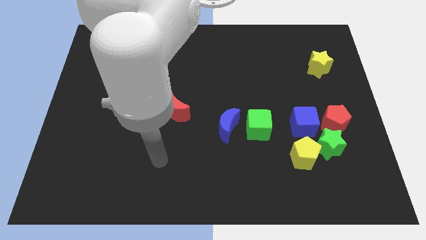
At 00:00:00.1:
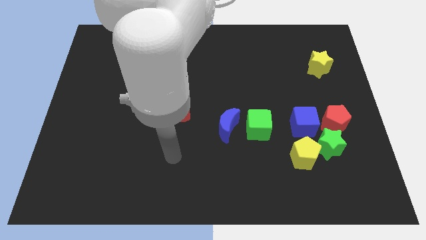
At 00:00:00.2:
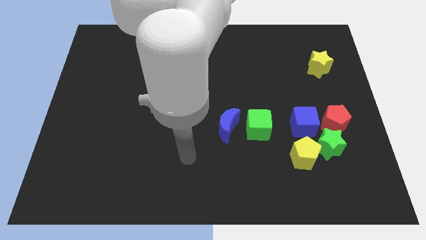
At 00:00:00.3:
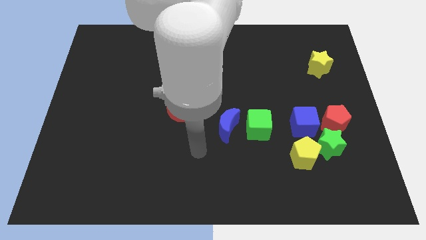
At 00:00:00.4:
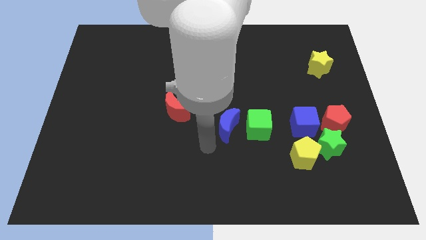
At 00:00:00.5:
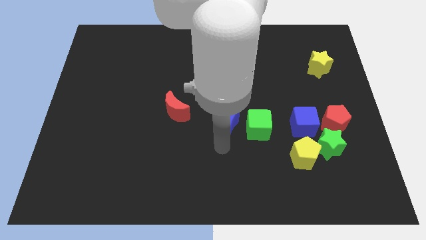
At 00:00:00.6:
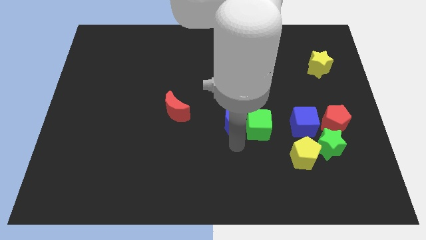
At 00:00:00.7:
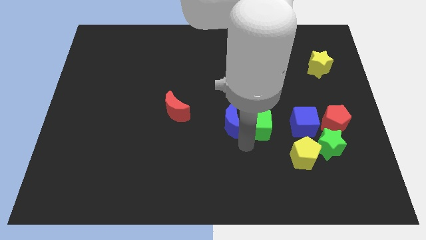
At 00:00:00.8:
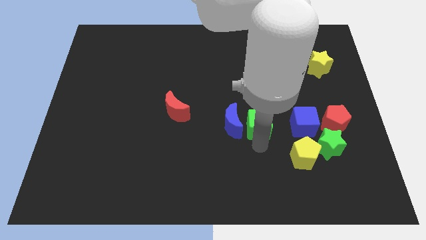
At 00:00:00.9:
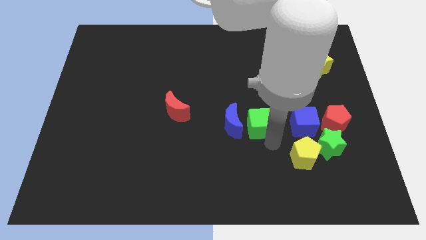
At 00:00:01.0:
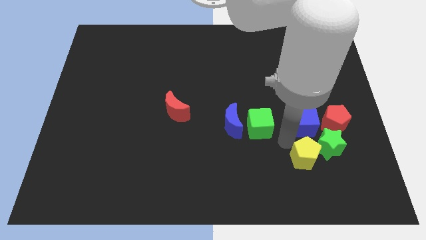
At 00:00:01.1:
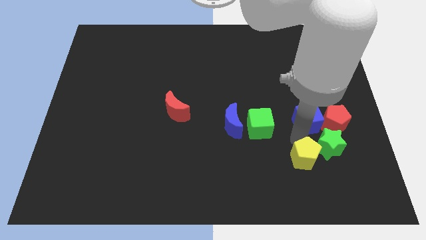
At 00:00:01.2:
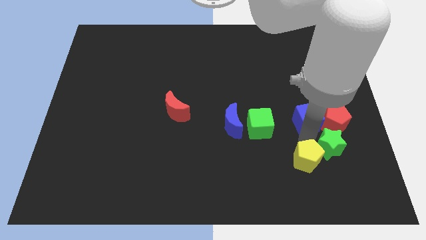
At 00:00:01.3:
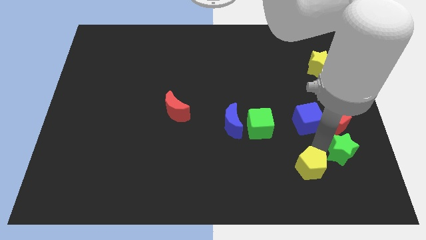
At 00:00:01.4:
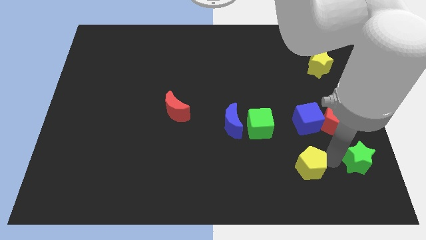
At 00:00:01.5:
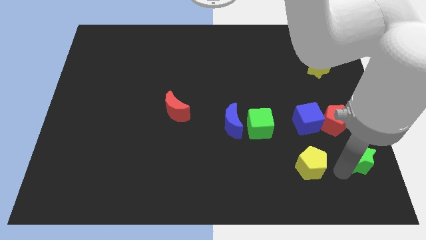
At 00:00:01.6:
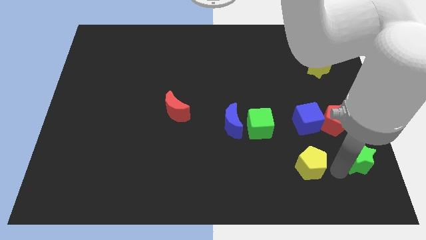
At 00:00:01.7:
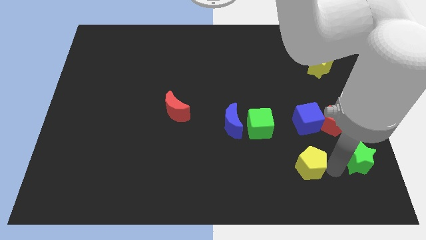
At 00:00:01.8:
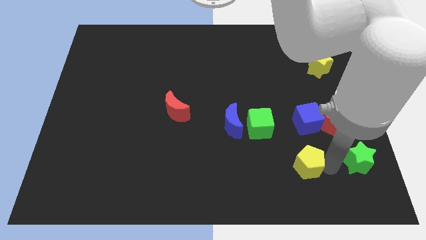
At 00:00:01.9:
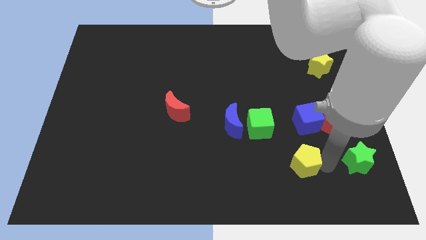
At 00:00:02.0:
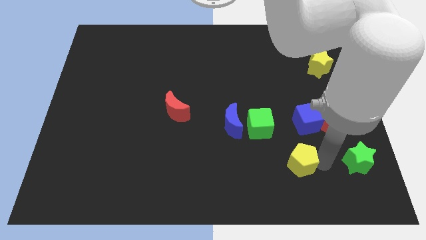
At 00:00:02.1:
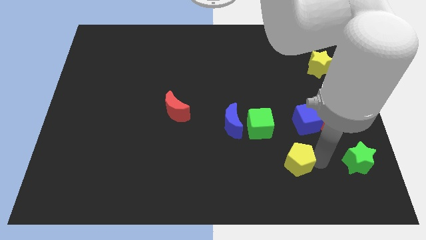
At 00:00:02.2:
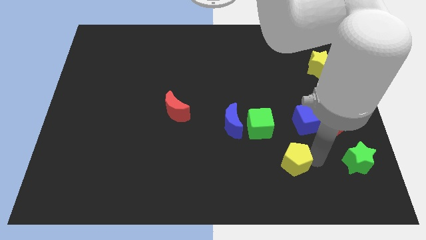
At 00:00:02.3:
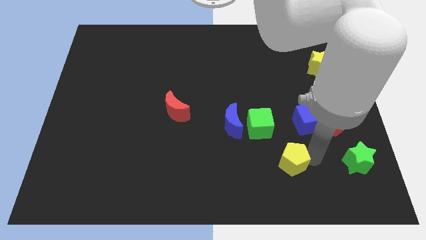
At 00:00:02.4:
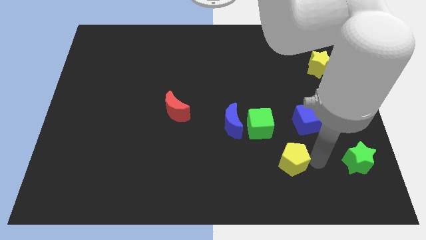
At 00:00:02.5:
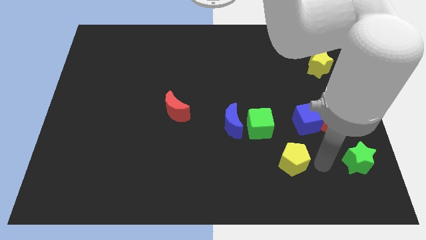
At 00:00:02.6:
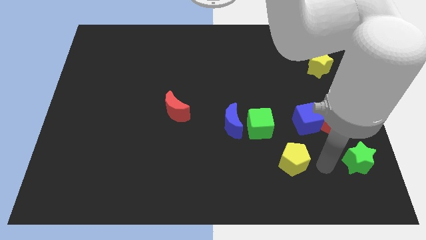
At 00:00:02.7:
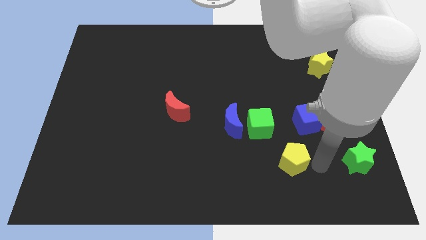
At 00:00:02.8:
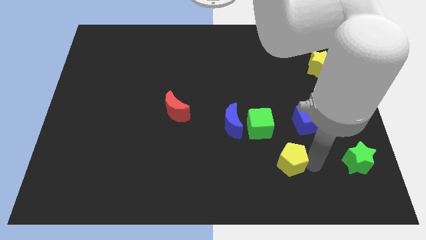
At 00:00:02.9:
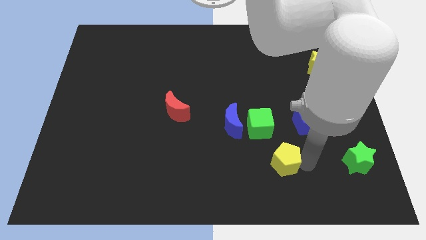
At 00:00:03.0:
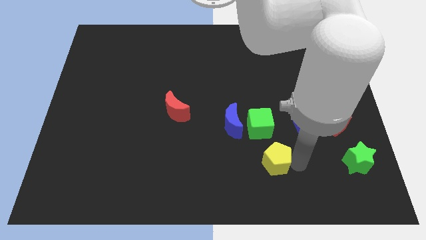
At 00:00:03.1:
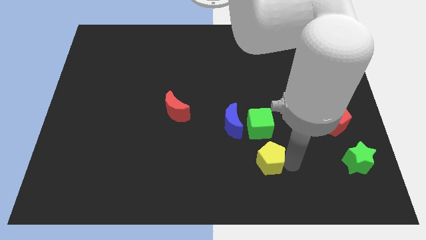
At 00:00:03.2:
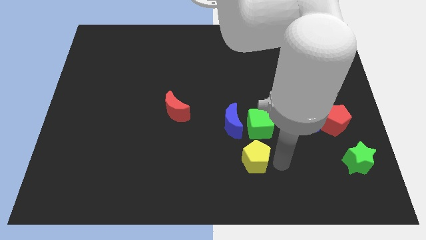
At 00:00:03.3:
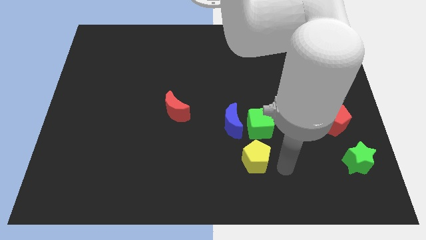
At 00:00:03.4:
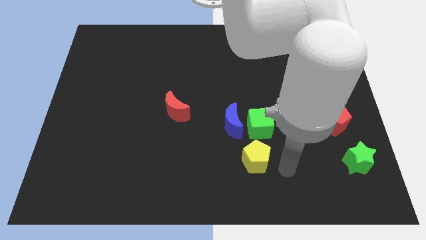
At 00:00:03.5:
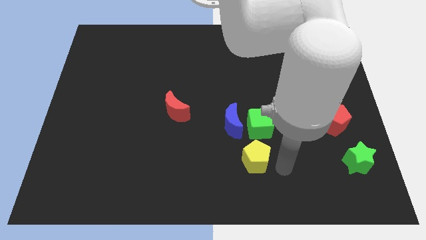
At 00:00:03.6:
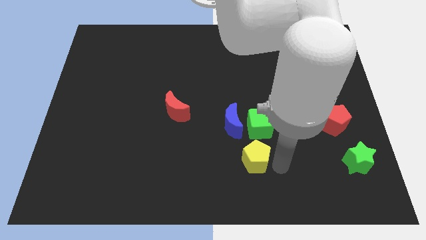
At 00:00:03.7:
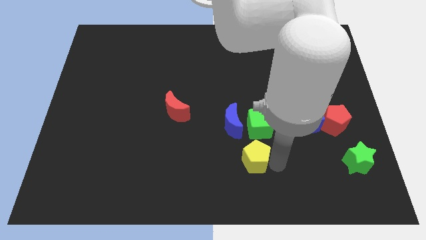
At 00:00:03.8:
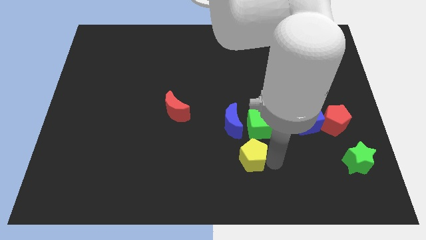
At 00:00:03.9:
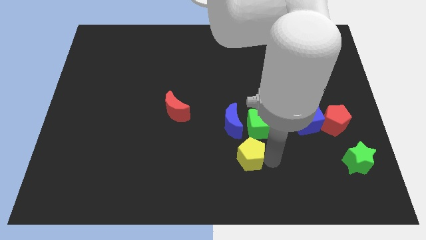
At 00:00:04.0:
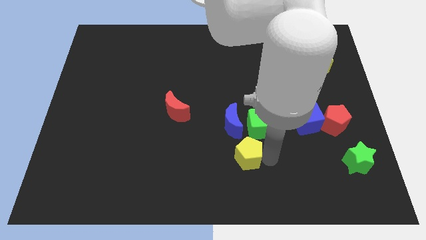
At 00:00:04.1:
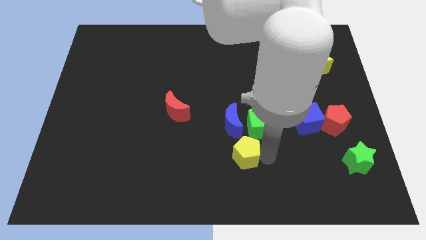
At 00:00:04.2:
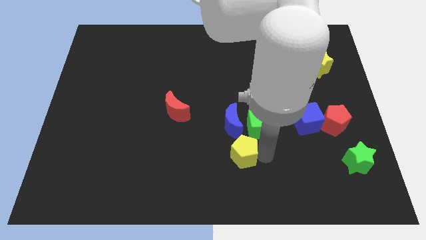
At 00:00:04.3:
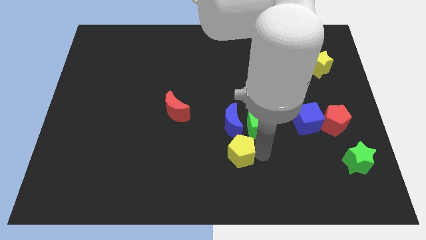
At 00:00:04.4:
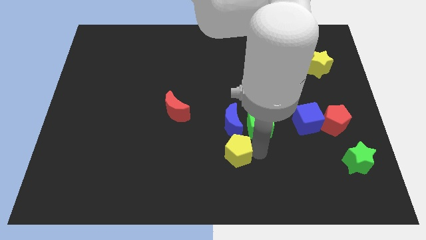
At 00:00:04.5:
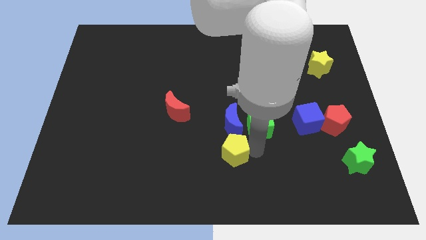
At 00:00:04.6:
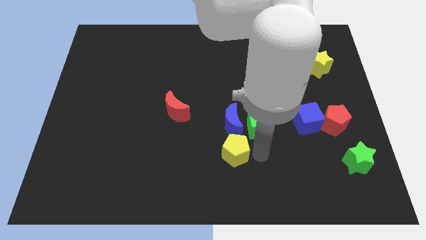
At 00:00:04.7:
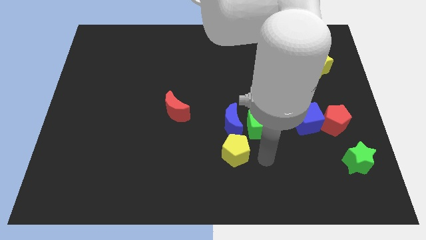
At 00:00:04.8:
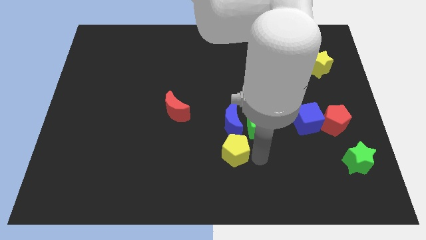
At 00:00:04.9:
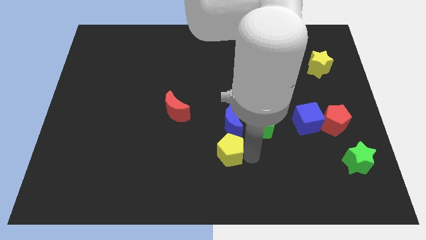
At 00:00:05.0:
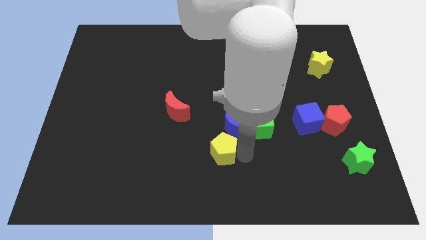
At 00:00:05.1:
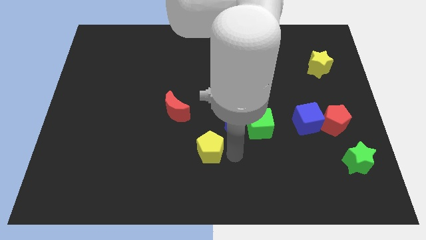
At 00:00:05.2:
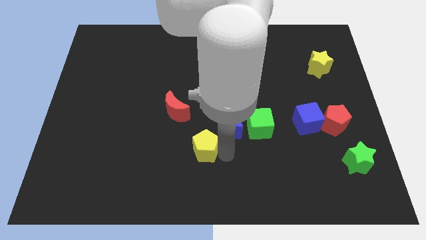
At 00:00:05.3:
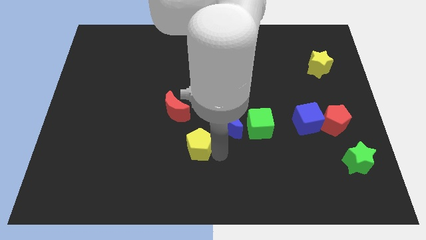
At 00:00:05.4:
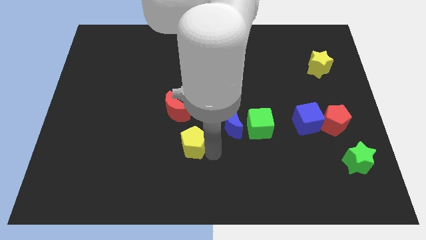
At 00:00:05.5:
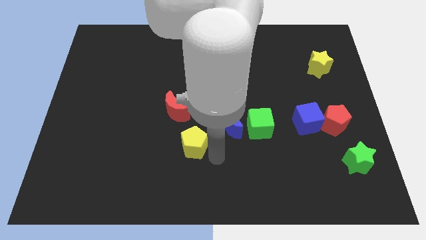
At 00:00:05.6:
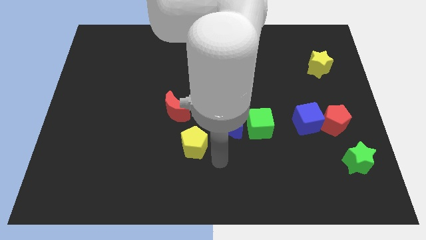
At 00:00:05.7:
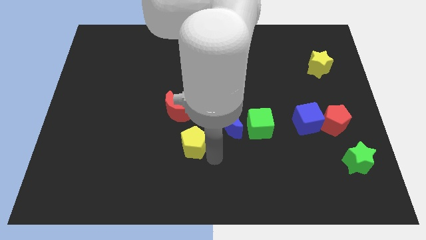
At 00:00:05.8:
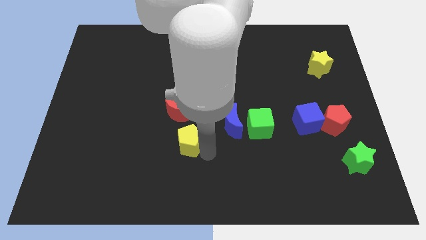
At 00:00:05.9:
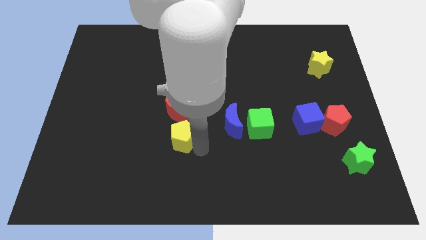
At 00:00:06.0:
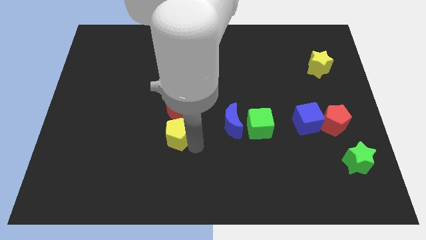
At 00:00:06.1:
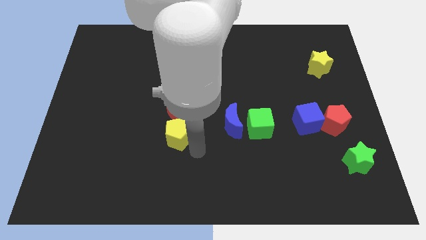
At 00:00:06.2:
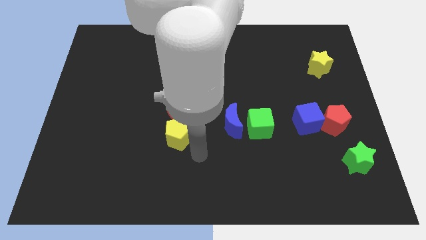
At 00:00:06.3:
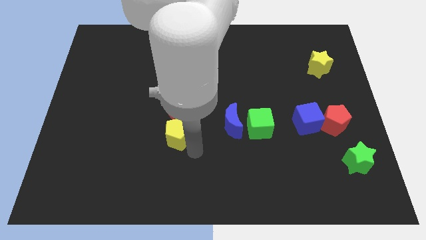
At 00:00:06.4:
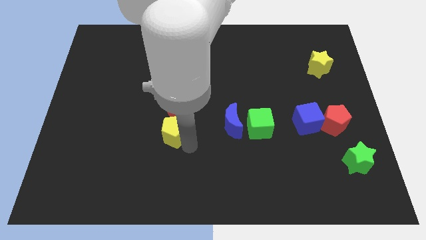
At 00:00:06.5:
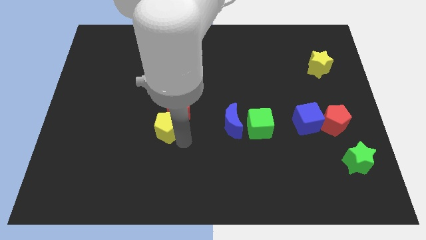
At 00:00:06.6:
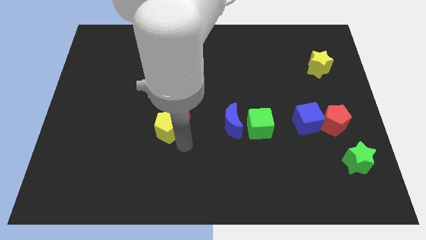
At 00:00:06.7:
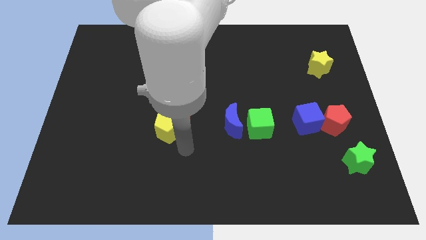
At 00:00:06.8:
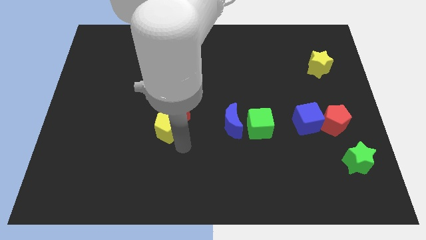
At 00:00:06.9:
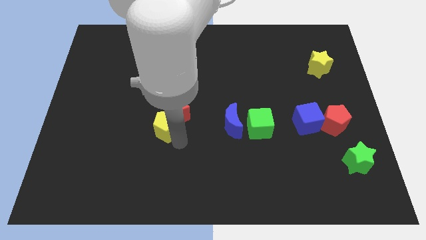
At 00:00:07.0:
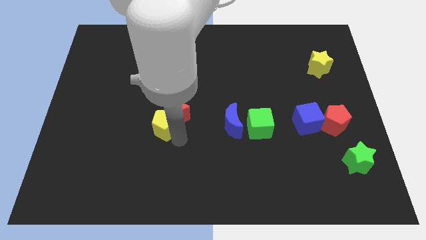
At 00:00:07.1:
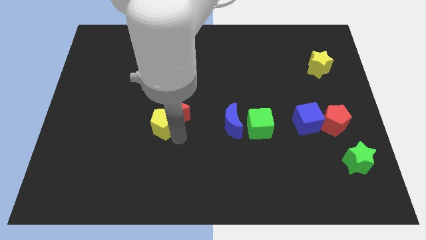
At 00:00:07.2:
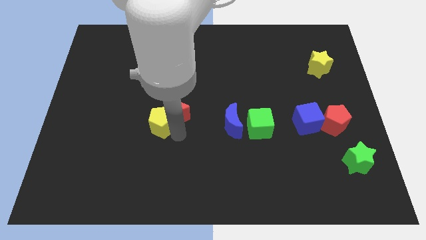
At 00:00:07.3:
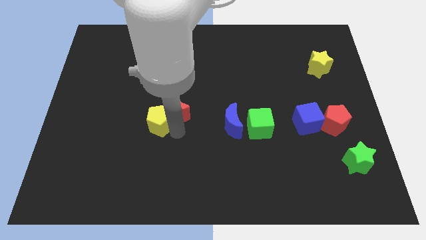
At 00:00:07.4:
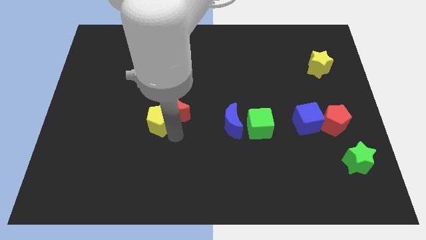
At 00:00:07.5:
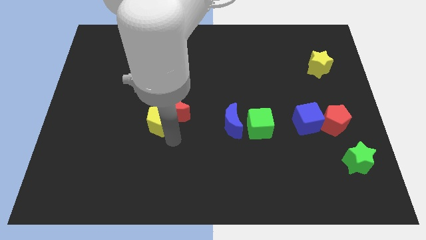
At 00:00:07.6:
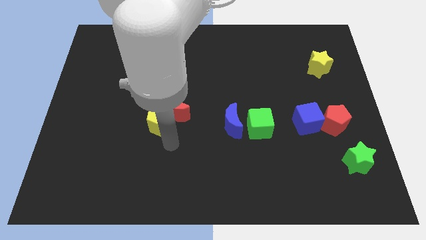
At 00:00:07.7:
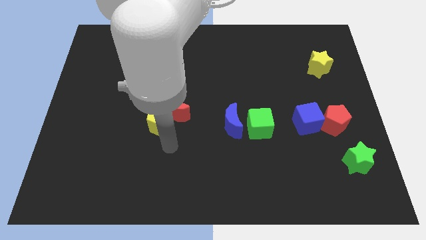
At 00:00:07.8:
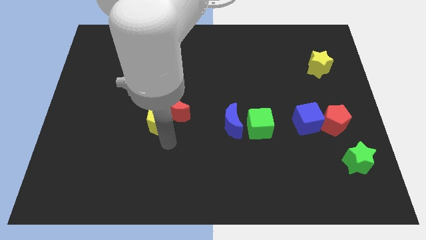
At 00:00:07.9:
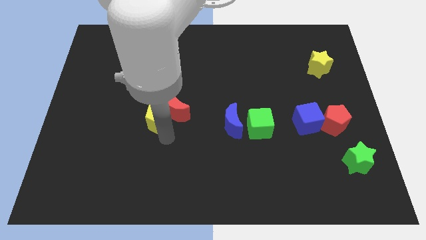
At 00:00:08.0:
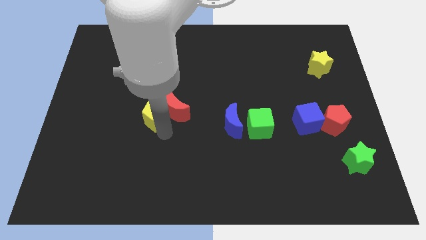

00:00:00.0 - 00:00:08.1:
push the yellow pentagon to the top left of the red moon
